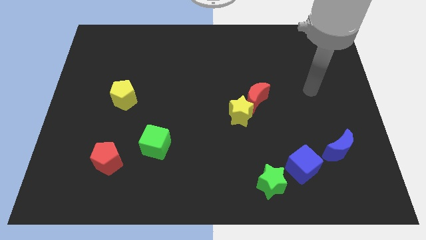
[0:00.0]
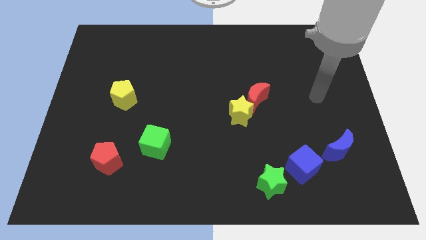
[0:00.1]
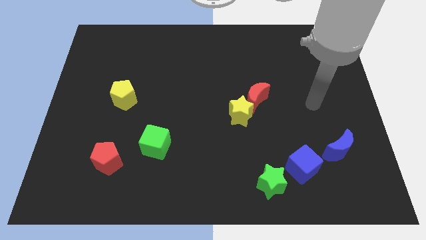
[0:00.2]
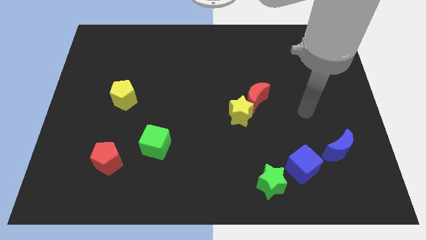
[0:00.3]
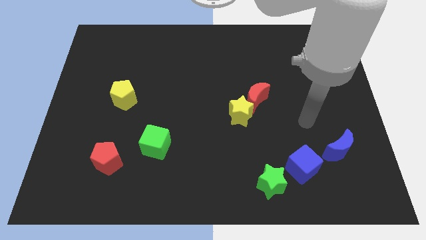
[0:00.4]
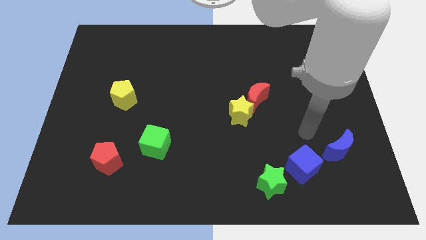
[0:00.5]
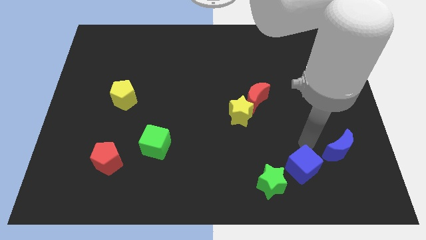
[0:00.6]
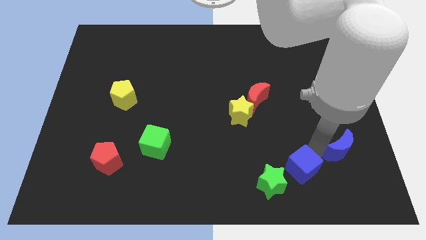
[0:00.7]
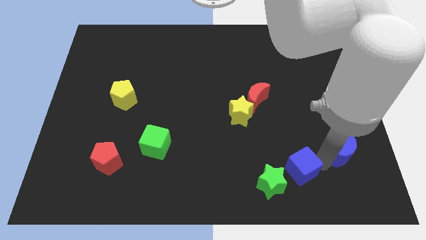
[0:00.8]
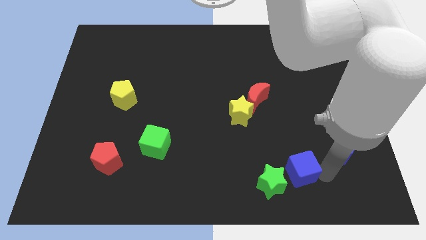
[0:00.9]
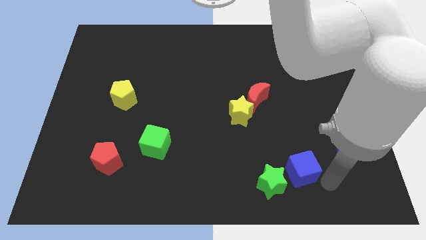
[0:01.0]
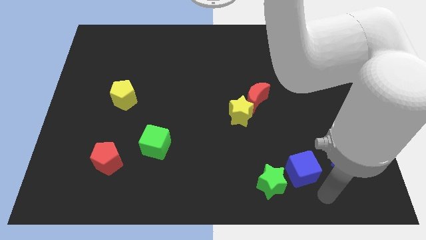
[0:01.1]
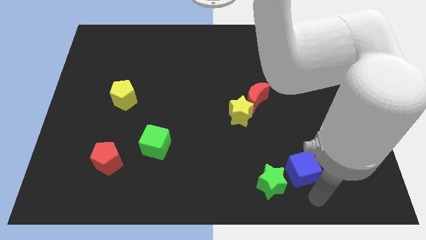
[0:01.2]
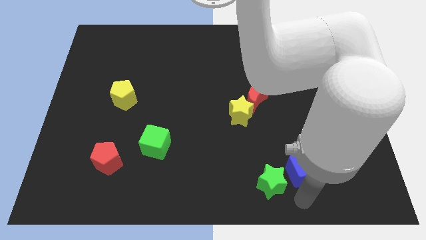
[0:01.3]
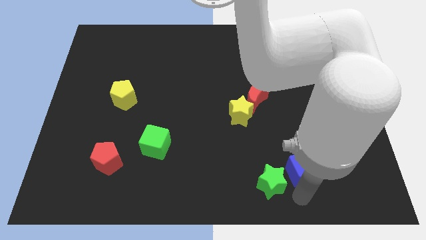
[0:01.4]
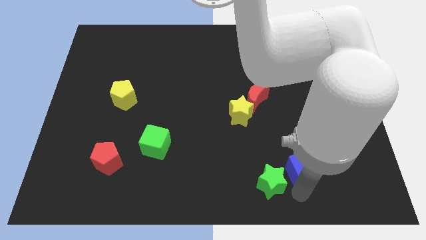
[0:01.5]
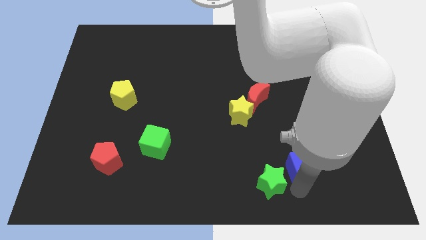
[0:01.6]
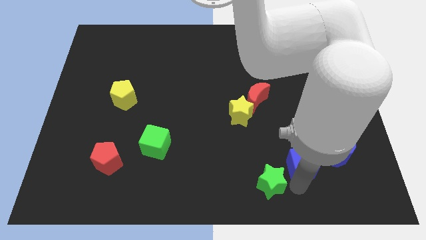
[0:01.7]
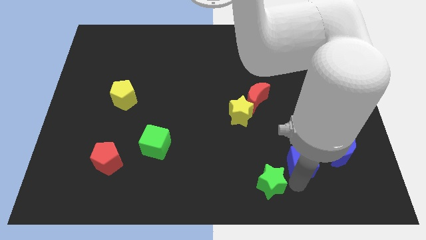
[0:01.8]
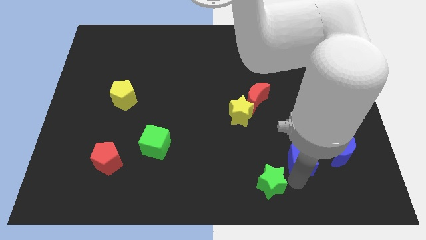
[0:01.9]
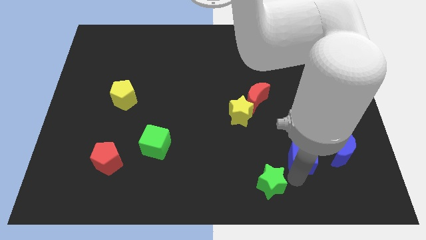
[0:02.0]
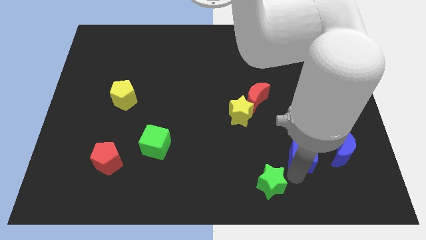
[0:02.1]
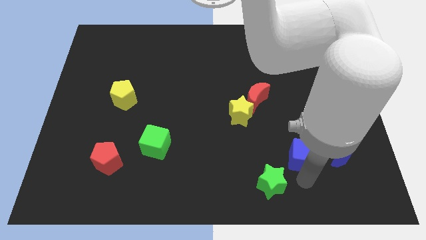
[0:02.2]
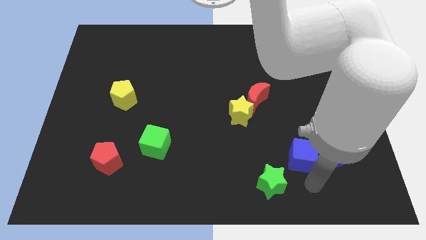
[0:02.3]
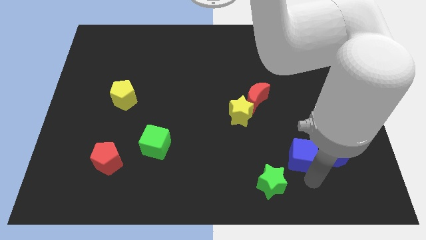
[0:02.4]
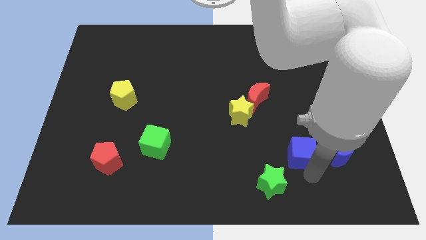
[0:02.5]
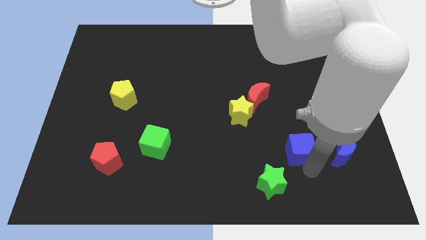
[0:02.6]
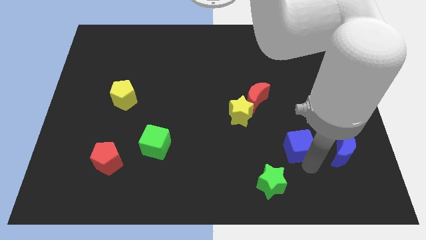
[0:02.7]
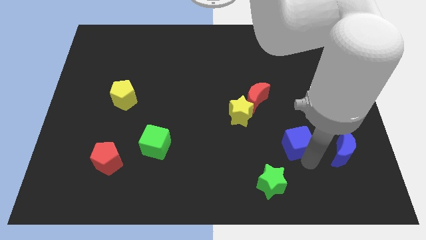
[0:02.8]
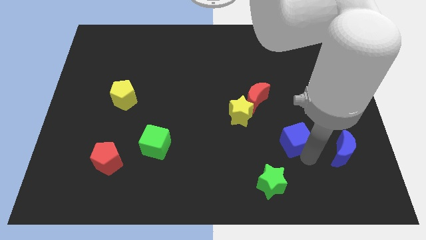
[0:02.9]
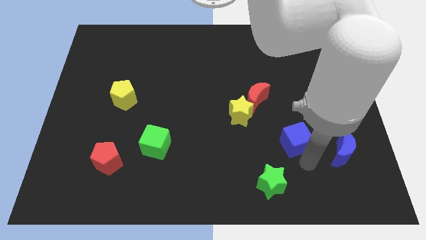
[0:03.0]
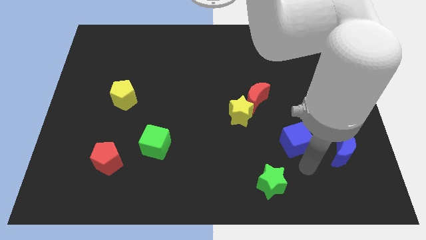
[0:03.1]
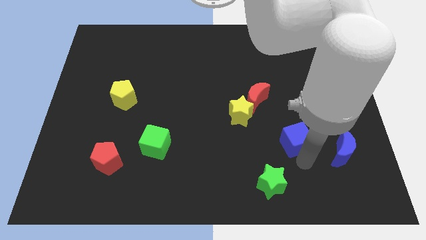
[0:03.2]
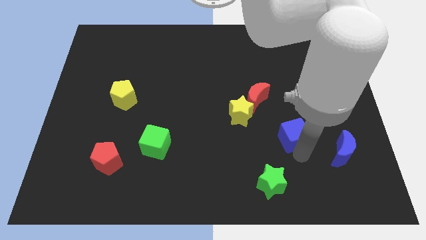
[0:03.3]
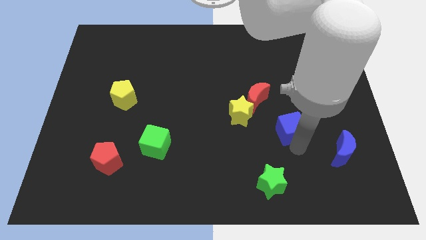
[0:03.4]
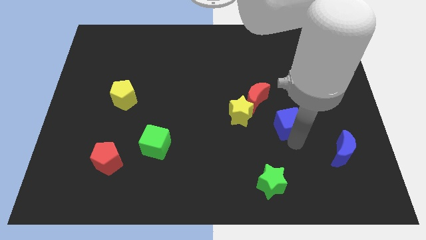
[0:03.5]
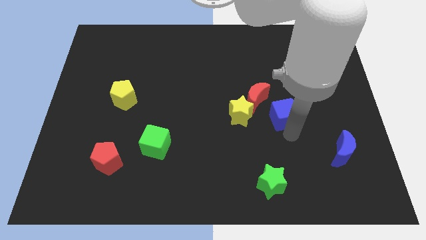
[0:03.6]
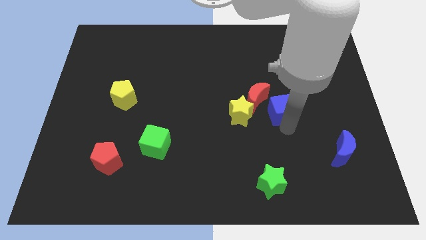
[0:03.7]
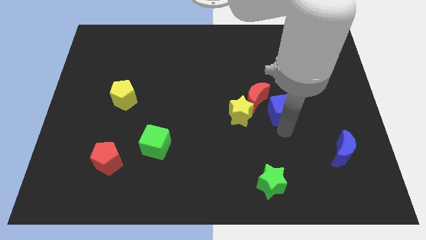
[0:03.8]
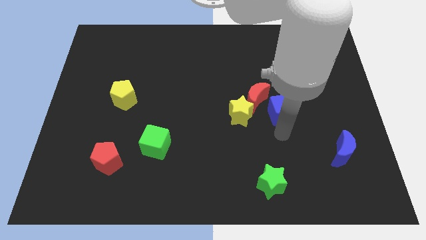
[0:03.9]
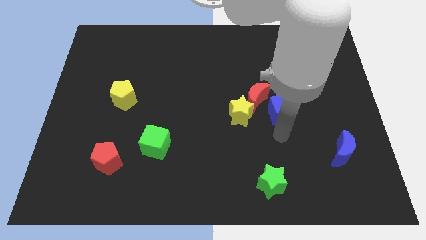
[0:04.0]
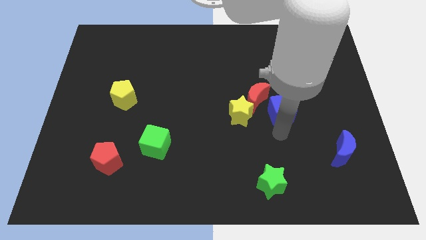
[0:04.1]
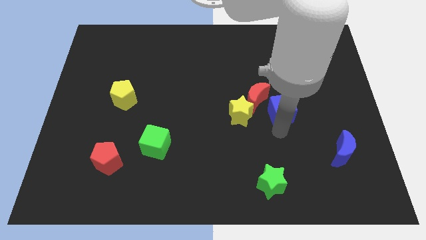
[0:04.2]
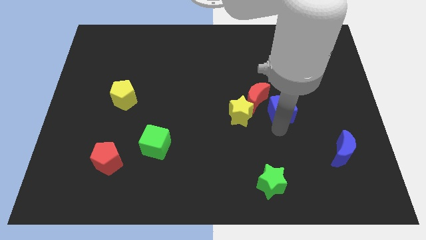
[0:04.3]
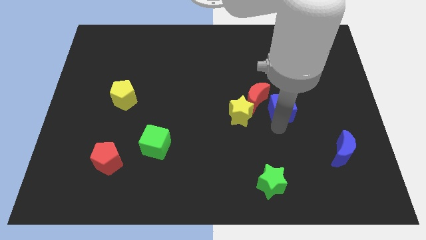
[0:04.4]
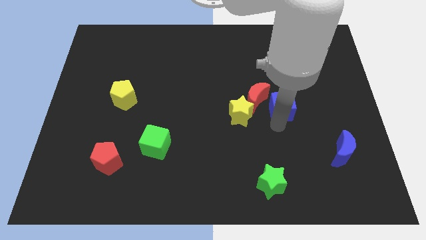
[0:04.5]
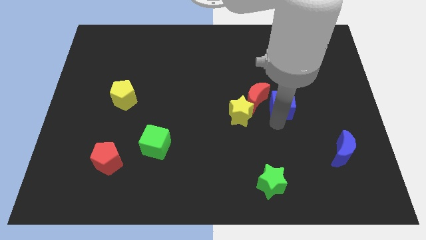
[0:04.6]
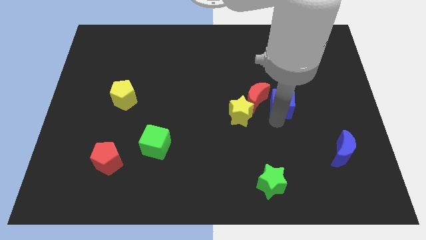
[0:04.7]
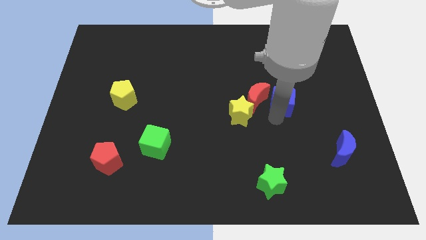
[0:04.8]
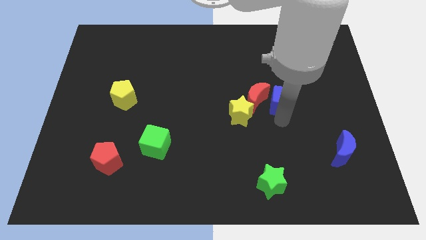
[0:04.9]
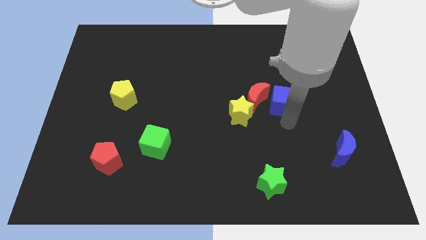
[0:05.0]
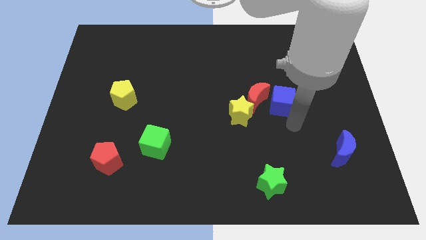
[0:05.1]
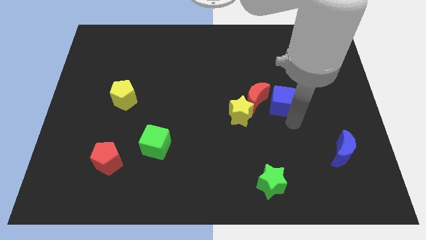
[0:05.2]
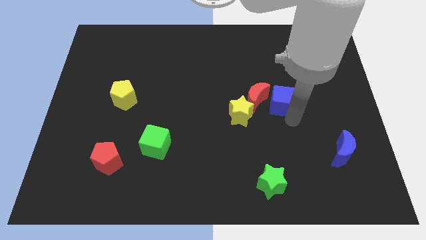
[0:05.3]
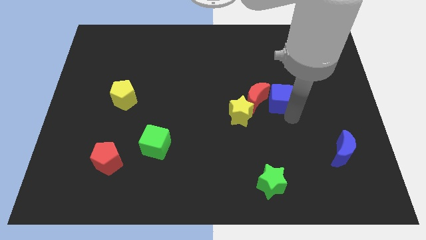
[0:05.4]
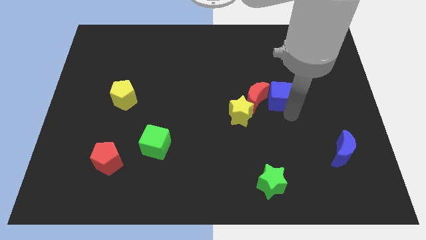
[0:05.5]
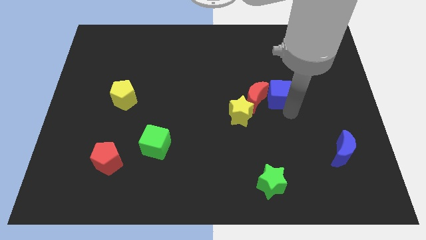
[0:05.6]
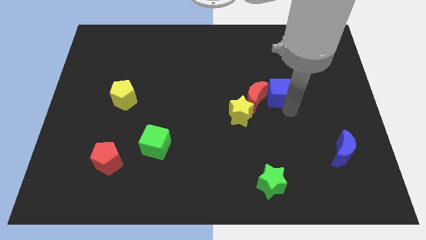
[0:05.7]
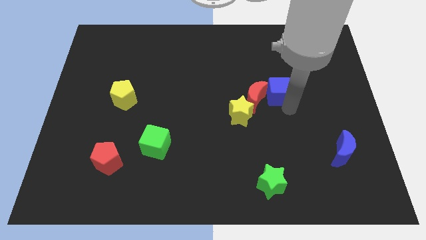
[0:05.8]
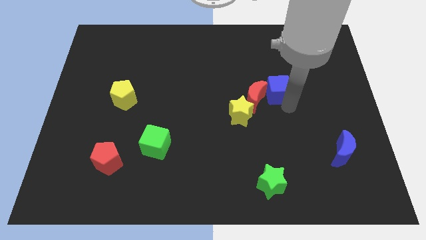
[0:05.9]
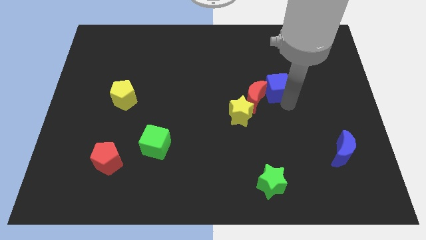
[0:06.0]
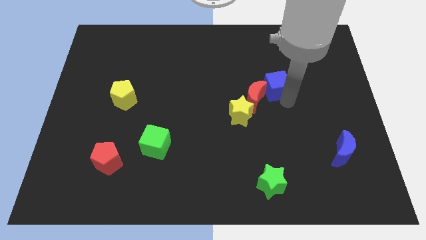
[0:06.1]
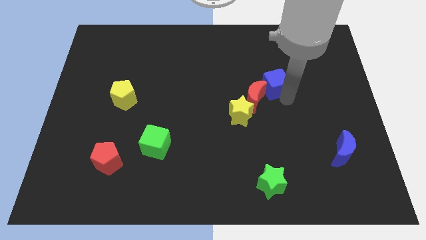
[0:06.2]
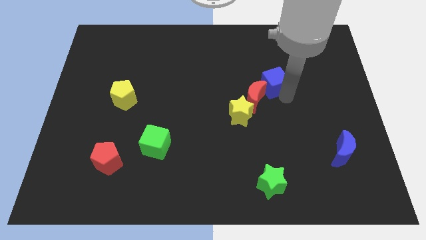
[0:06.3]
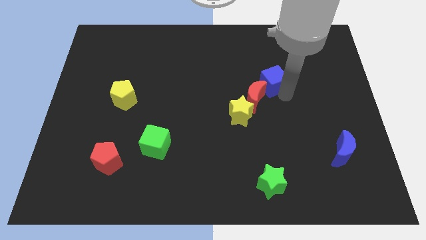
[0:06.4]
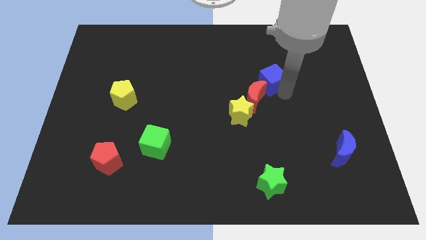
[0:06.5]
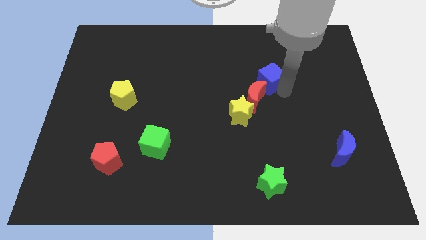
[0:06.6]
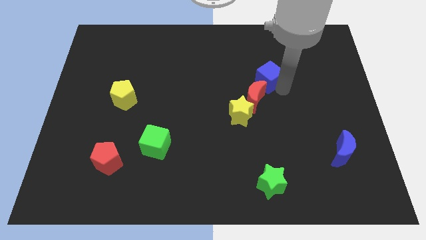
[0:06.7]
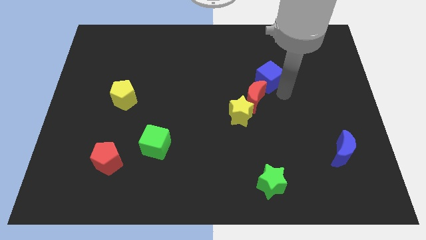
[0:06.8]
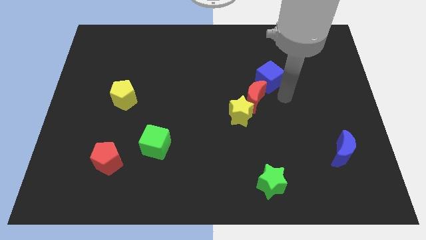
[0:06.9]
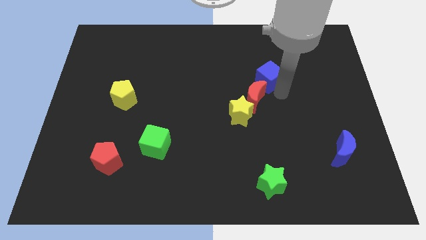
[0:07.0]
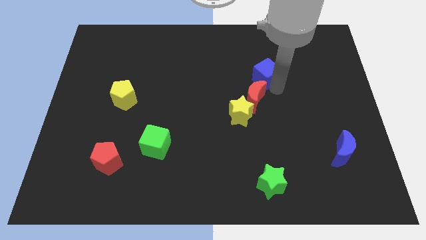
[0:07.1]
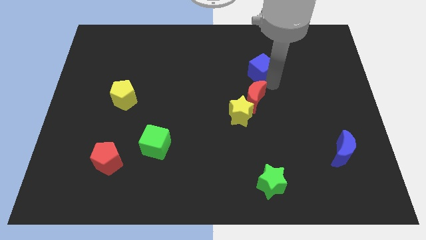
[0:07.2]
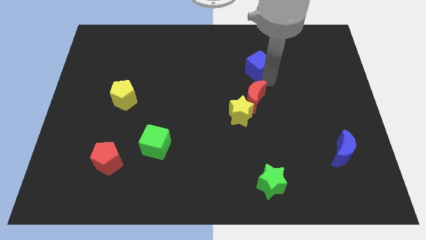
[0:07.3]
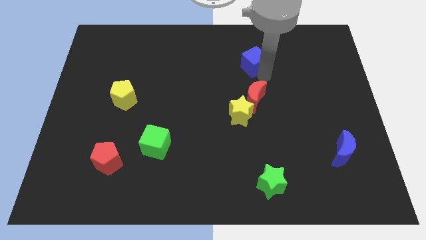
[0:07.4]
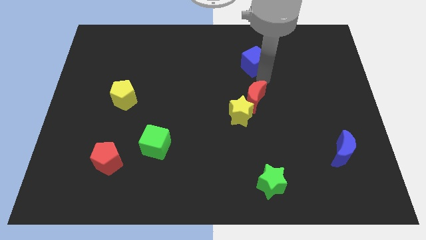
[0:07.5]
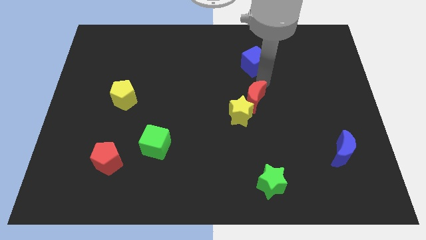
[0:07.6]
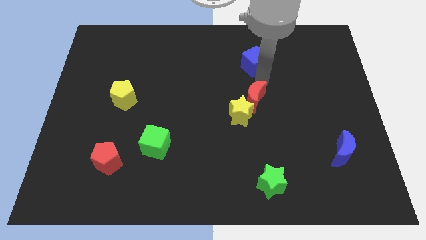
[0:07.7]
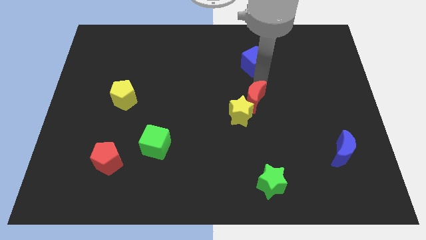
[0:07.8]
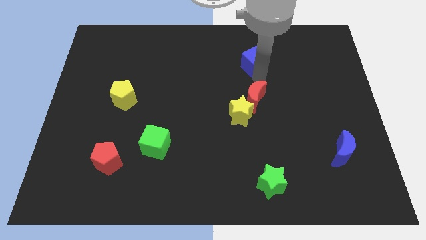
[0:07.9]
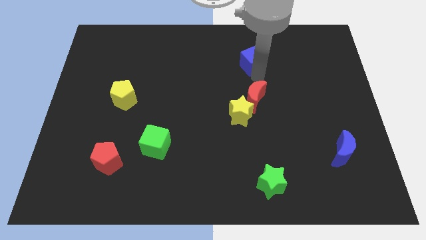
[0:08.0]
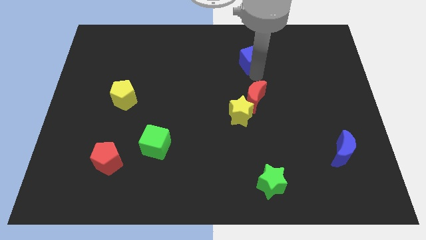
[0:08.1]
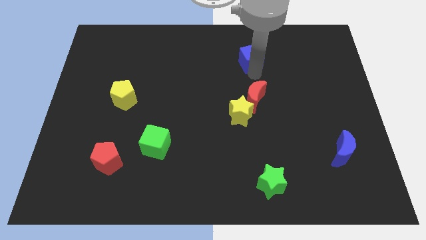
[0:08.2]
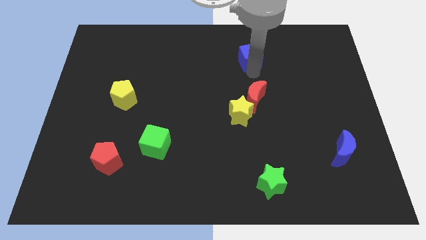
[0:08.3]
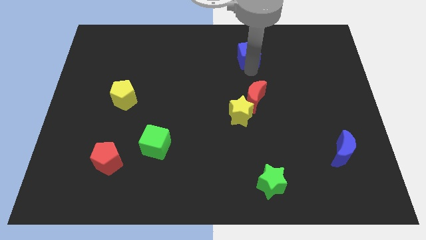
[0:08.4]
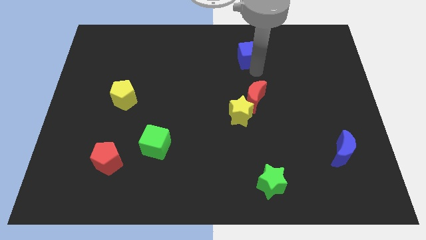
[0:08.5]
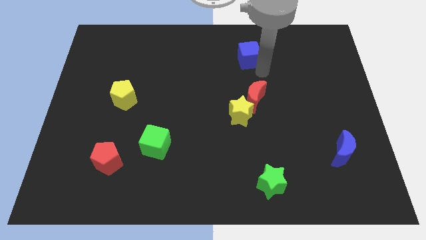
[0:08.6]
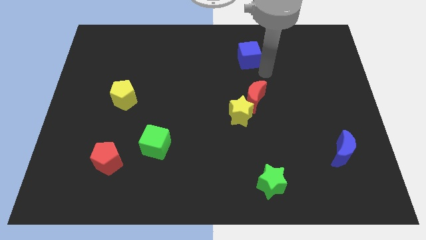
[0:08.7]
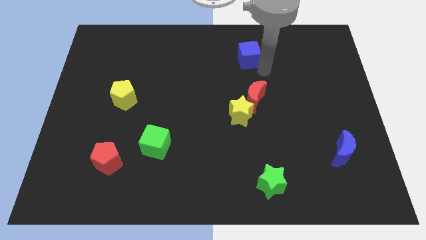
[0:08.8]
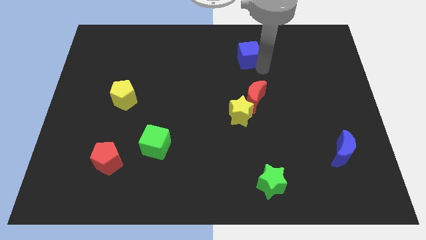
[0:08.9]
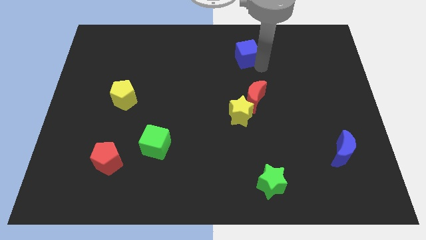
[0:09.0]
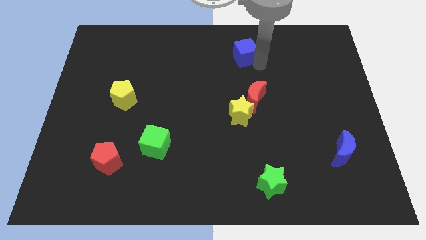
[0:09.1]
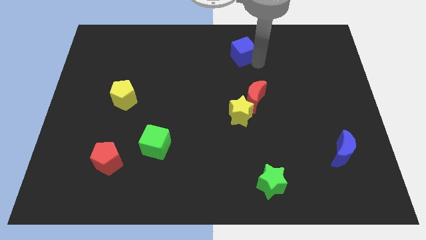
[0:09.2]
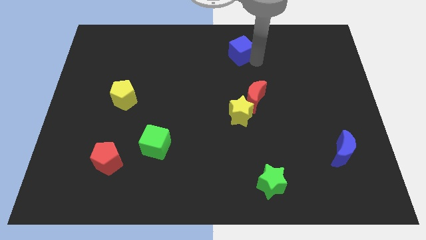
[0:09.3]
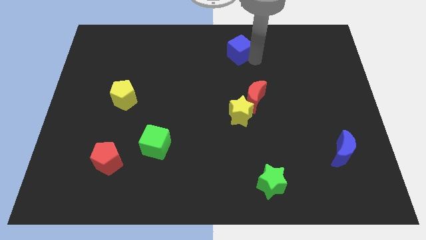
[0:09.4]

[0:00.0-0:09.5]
put the blue cube to the towards your base
